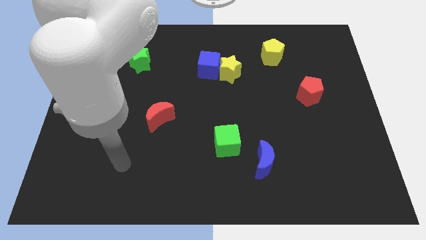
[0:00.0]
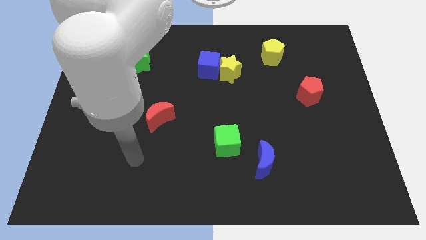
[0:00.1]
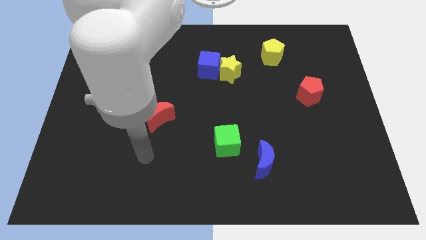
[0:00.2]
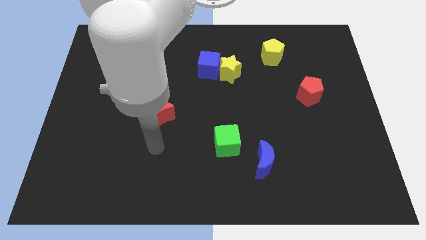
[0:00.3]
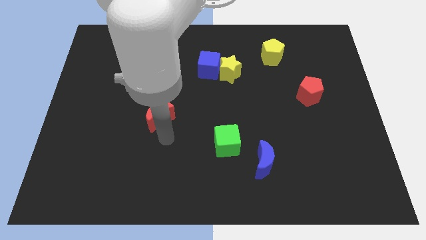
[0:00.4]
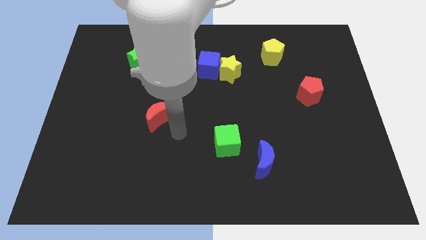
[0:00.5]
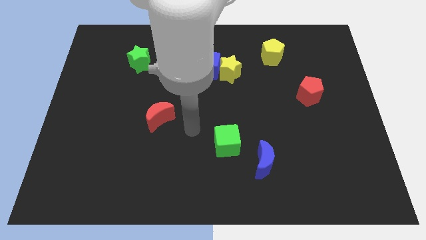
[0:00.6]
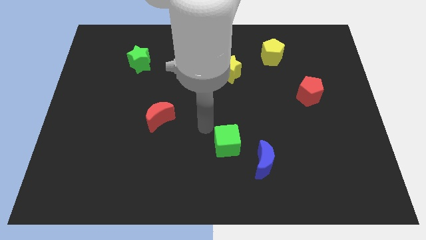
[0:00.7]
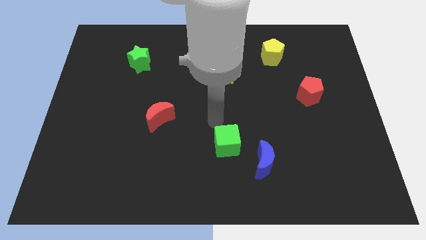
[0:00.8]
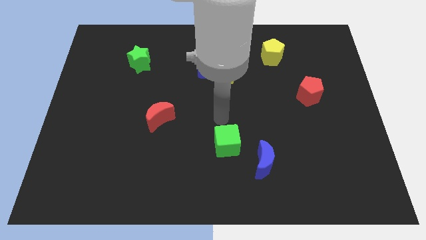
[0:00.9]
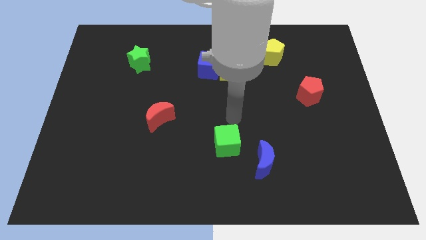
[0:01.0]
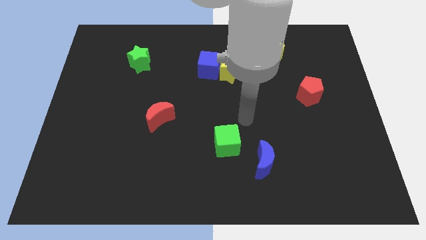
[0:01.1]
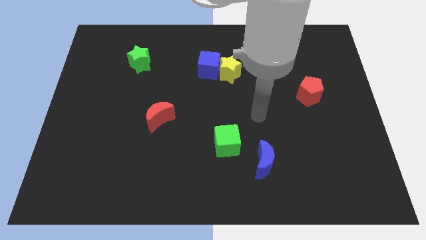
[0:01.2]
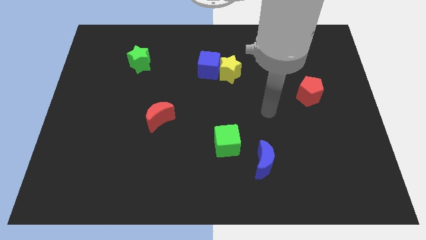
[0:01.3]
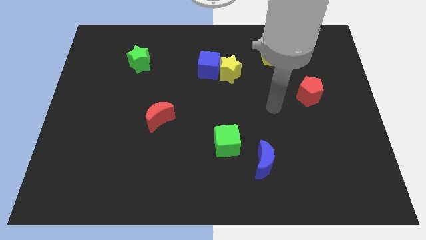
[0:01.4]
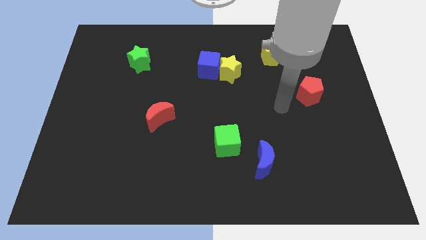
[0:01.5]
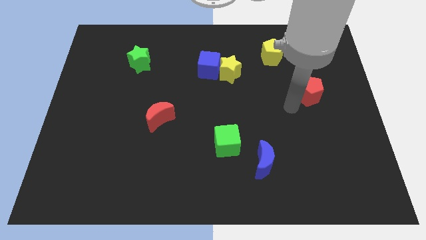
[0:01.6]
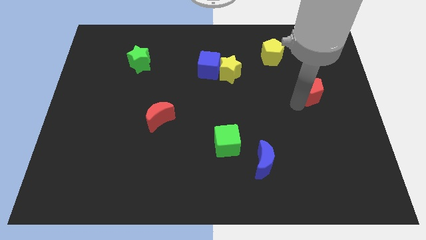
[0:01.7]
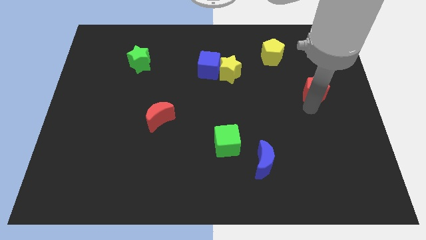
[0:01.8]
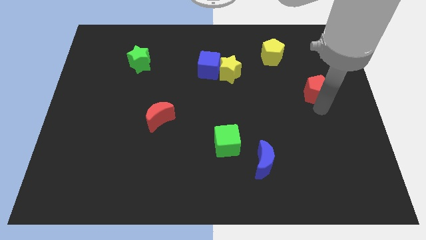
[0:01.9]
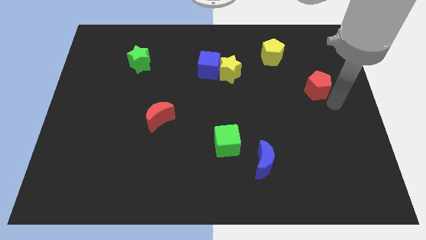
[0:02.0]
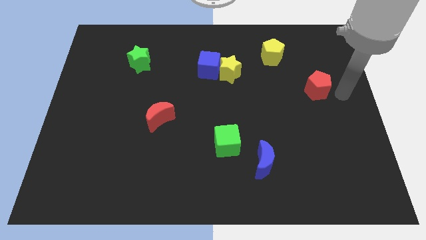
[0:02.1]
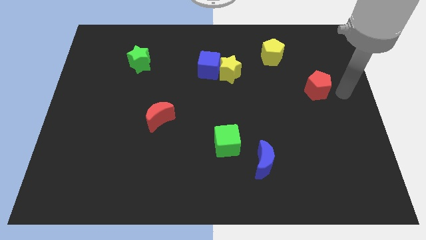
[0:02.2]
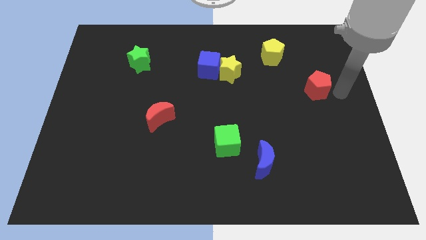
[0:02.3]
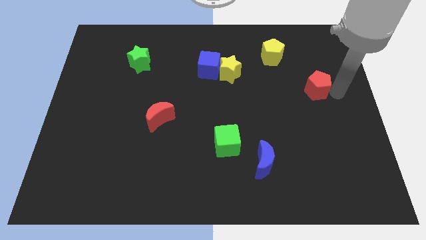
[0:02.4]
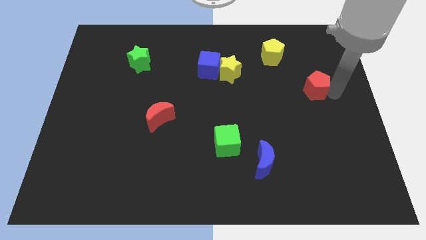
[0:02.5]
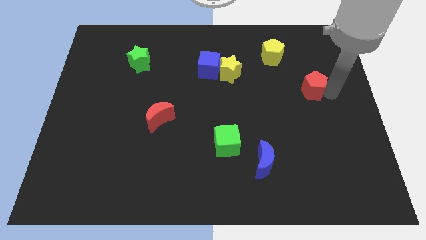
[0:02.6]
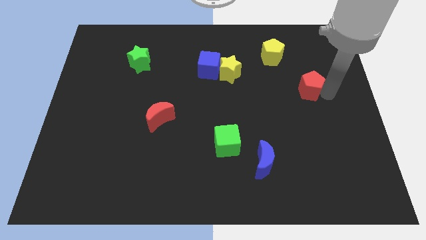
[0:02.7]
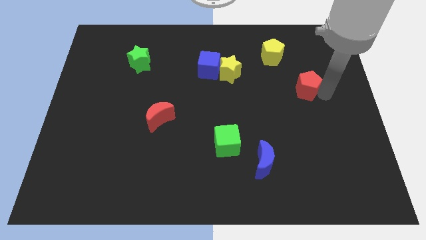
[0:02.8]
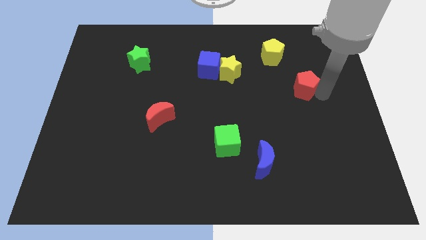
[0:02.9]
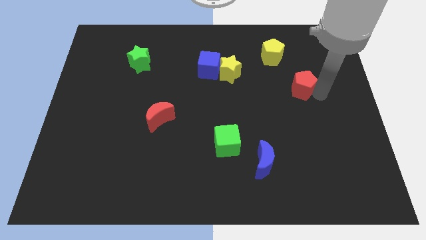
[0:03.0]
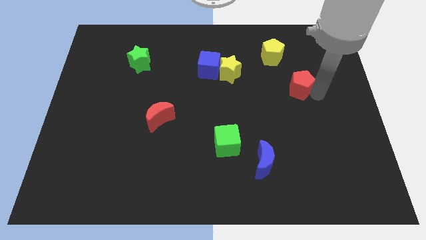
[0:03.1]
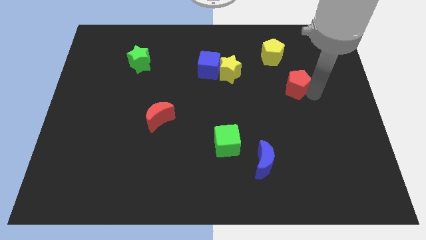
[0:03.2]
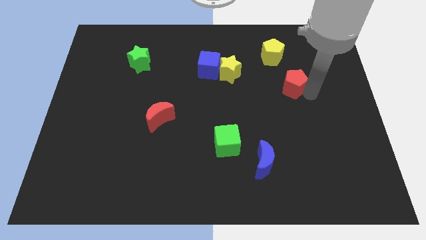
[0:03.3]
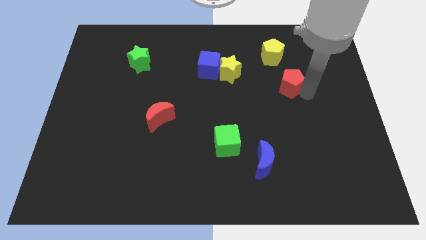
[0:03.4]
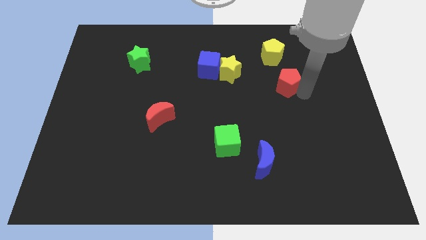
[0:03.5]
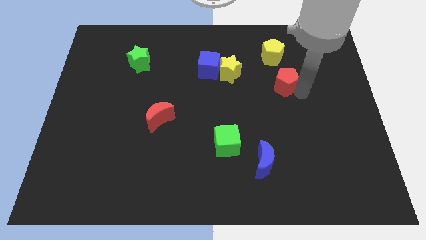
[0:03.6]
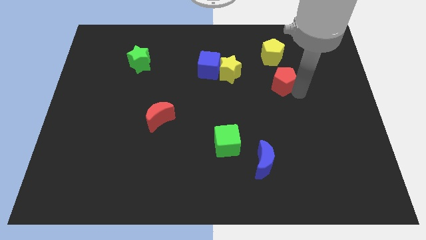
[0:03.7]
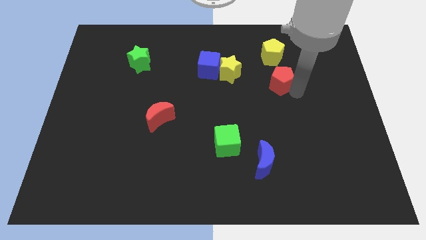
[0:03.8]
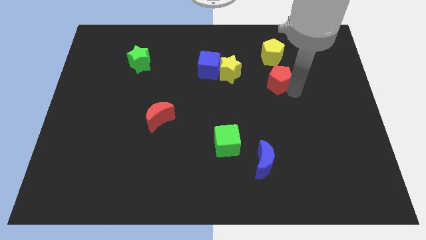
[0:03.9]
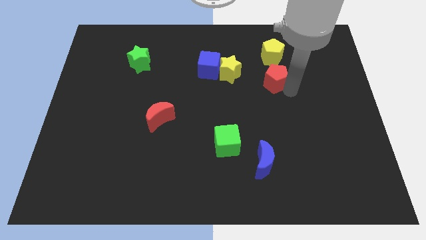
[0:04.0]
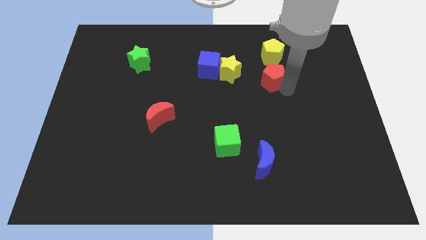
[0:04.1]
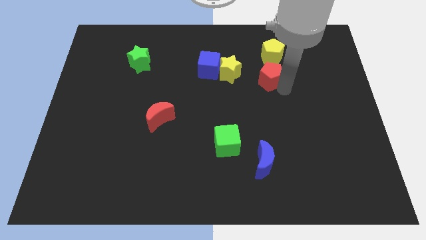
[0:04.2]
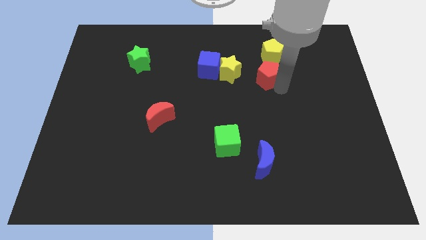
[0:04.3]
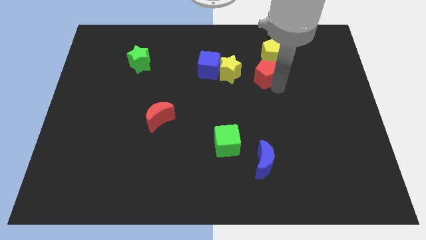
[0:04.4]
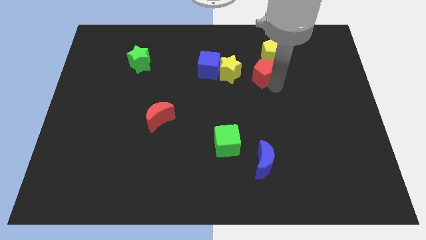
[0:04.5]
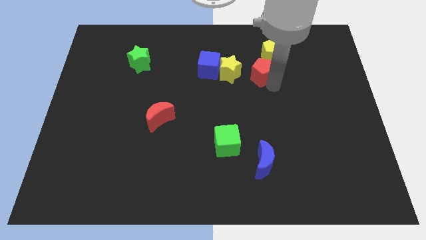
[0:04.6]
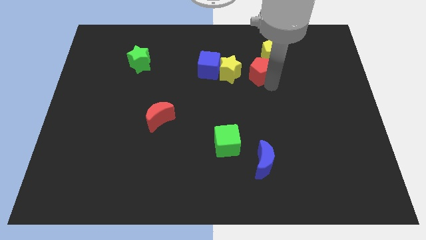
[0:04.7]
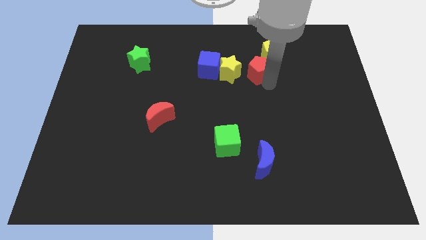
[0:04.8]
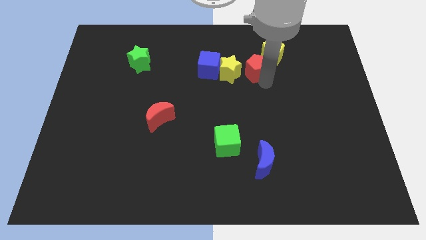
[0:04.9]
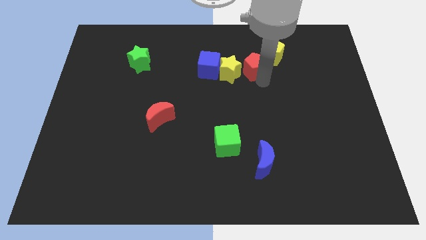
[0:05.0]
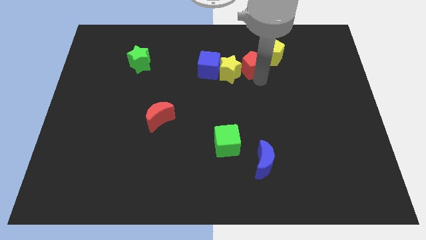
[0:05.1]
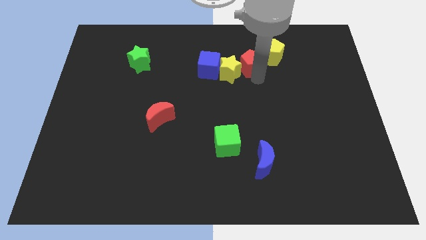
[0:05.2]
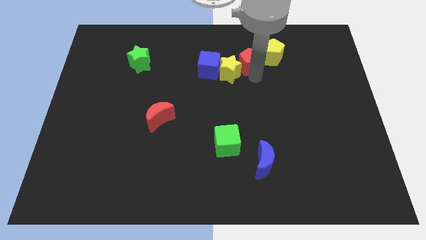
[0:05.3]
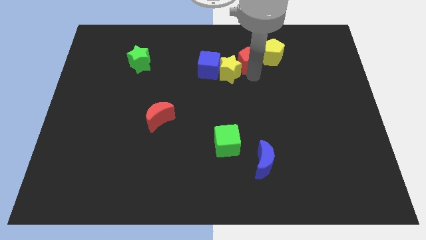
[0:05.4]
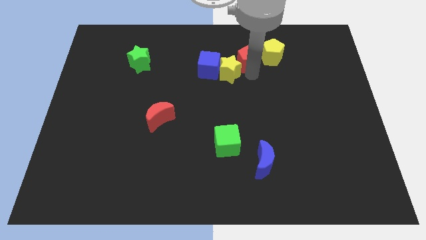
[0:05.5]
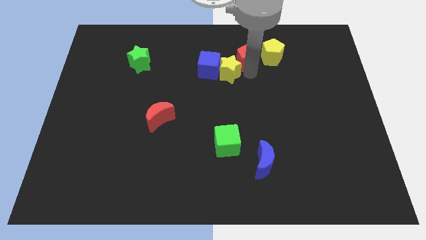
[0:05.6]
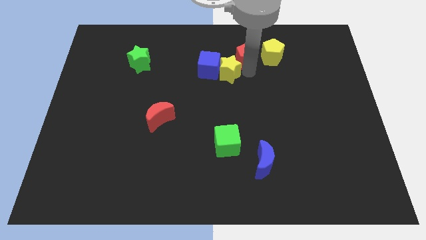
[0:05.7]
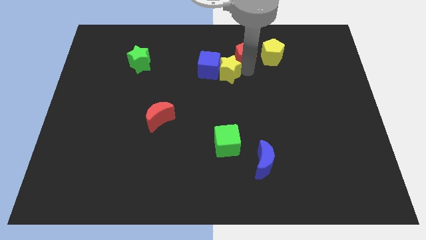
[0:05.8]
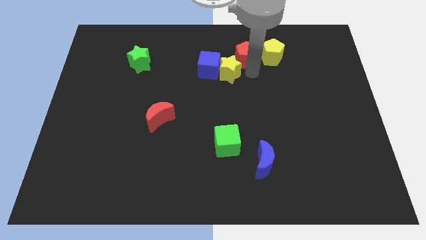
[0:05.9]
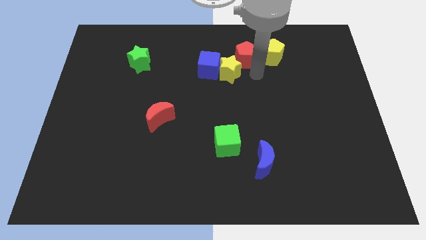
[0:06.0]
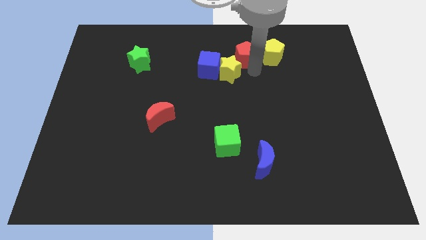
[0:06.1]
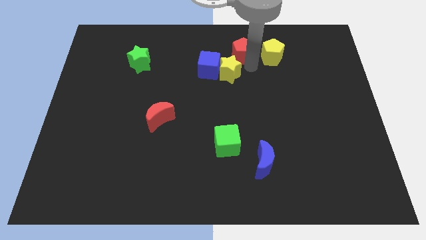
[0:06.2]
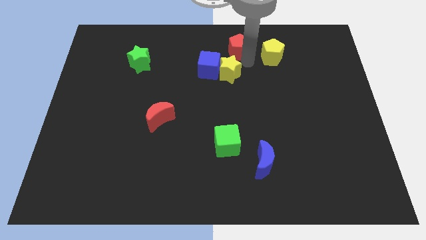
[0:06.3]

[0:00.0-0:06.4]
move the red pentagon to the top

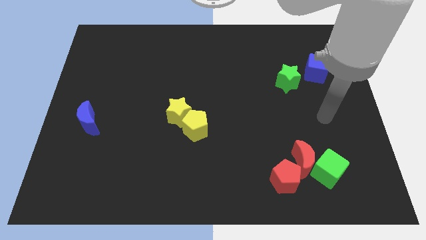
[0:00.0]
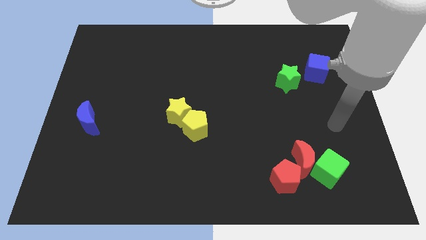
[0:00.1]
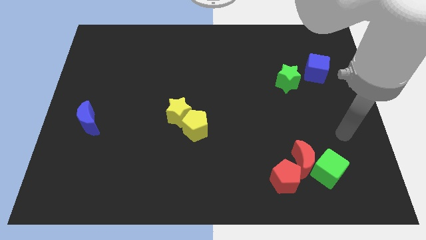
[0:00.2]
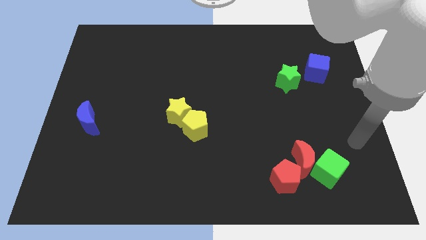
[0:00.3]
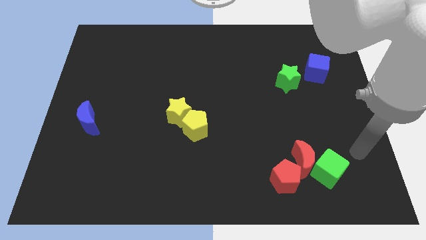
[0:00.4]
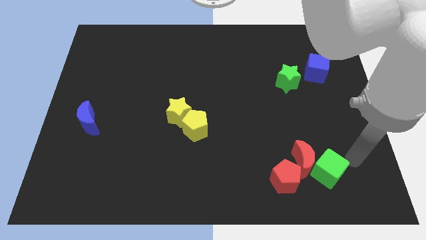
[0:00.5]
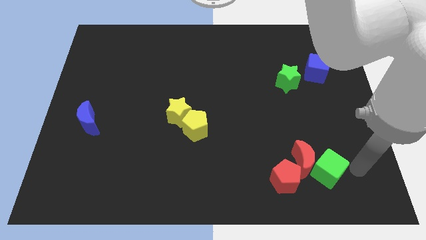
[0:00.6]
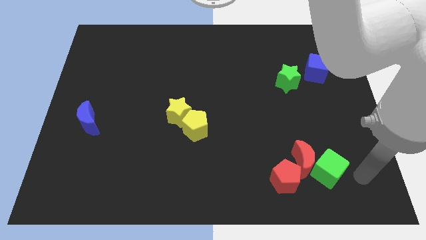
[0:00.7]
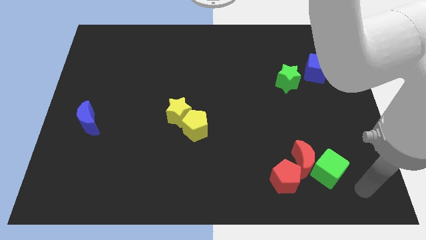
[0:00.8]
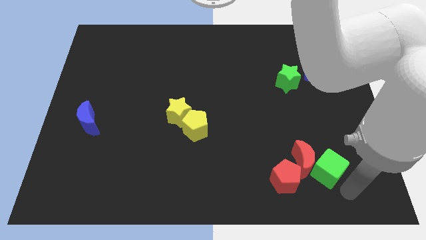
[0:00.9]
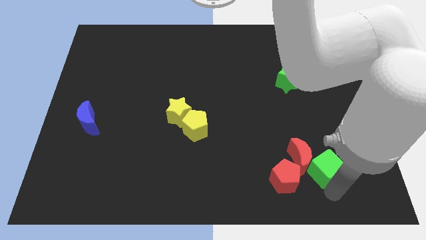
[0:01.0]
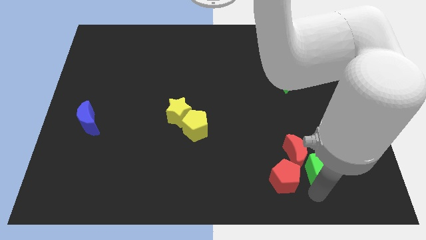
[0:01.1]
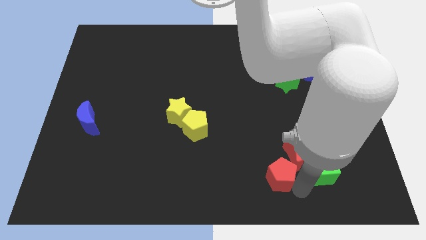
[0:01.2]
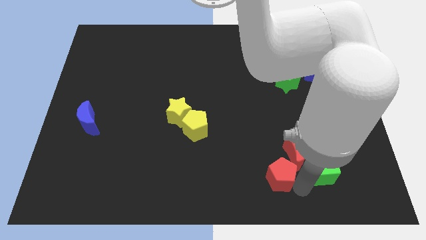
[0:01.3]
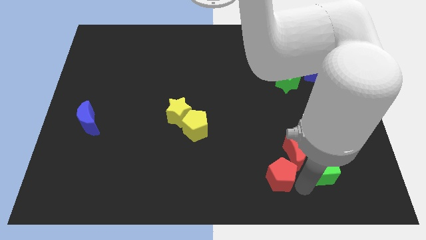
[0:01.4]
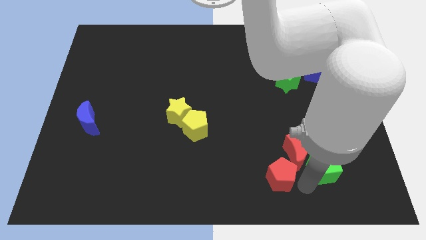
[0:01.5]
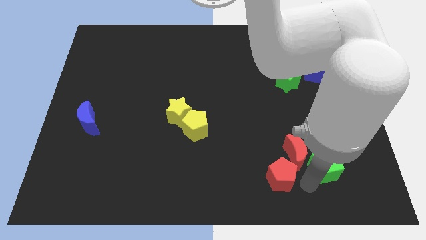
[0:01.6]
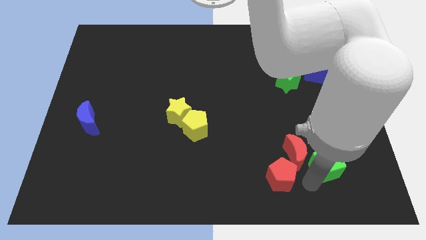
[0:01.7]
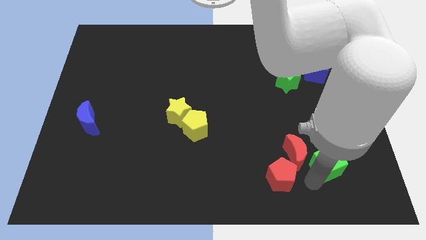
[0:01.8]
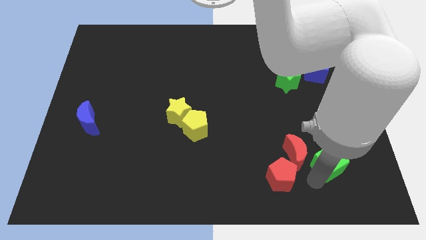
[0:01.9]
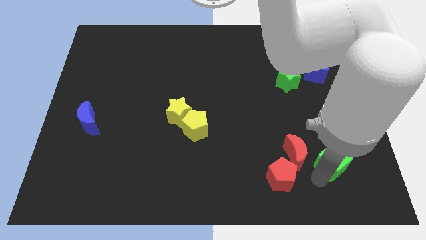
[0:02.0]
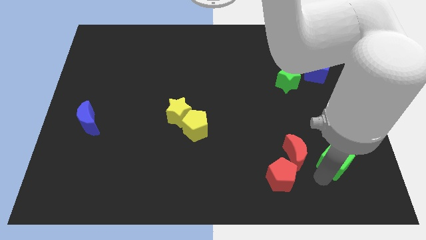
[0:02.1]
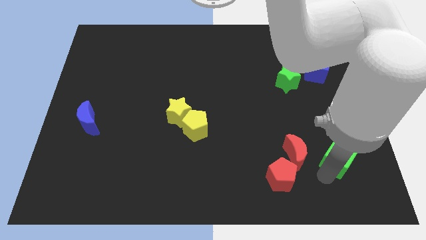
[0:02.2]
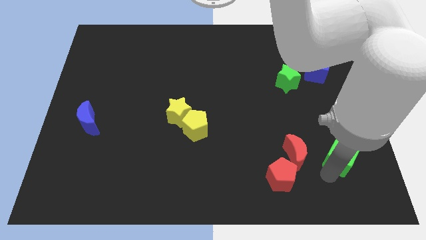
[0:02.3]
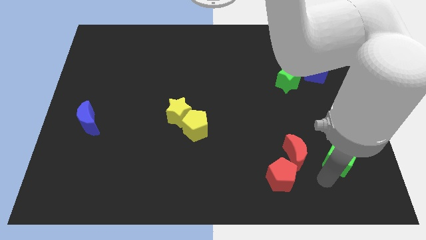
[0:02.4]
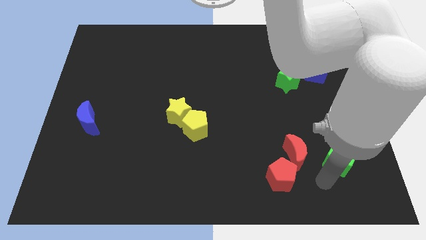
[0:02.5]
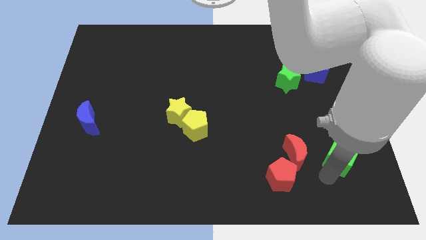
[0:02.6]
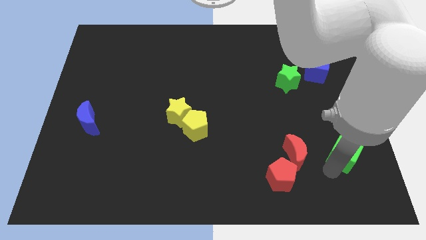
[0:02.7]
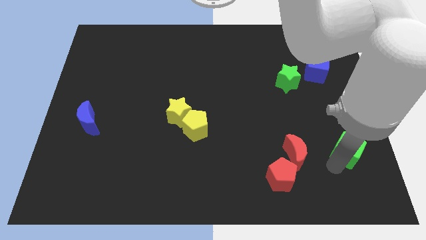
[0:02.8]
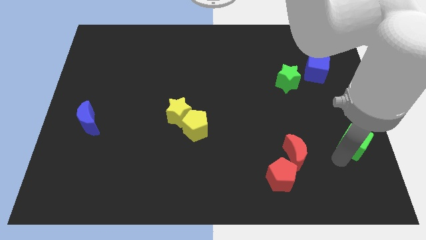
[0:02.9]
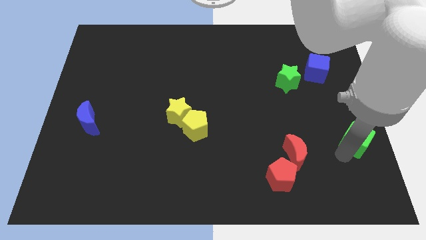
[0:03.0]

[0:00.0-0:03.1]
move the green cube to the center right
